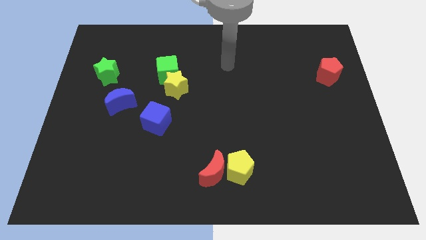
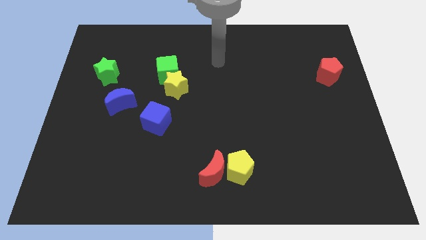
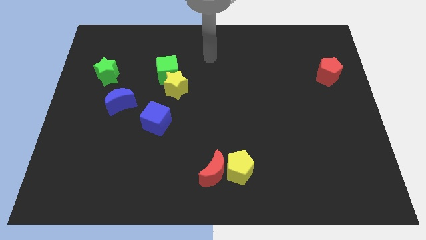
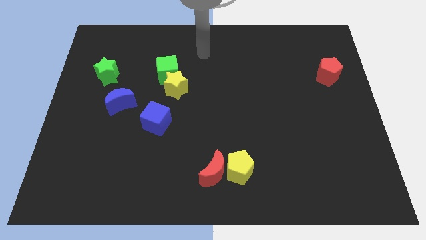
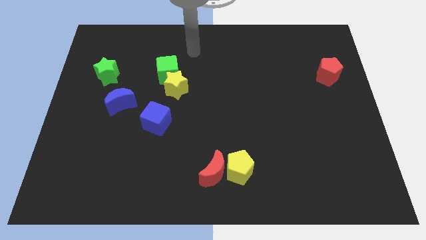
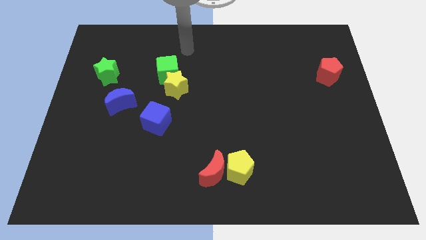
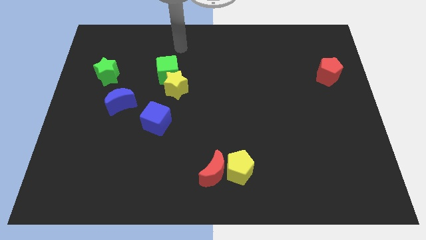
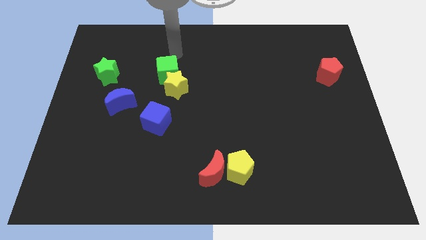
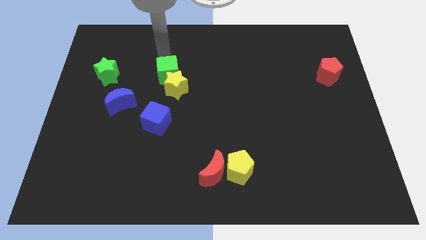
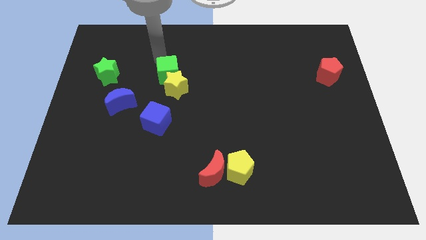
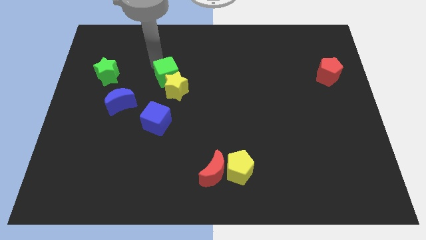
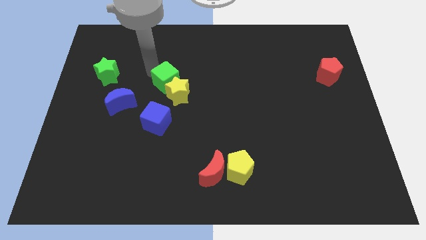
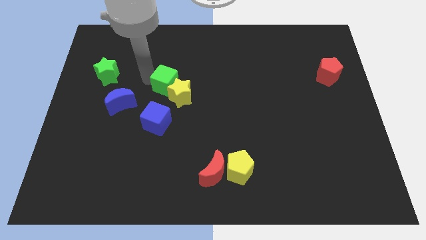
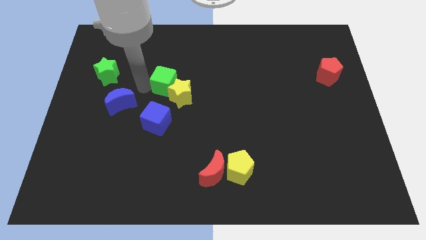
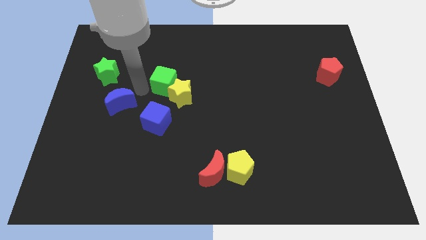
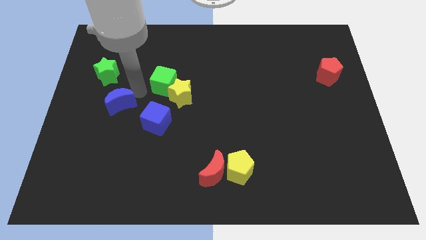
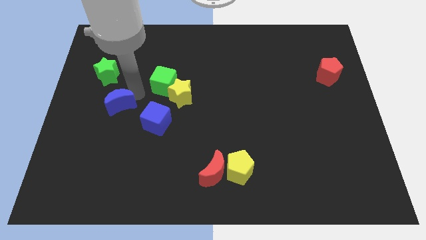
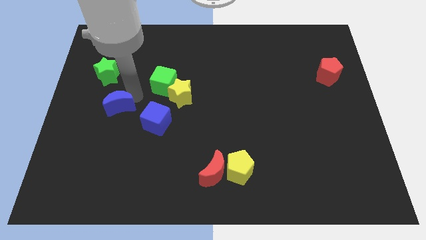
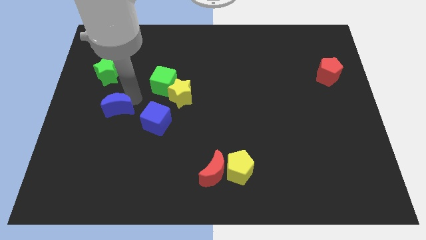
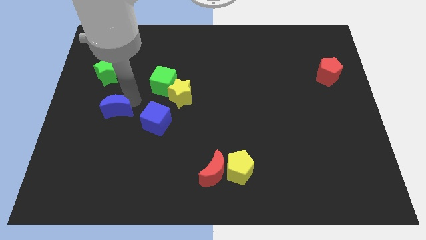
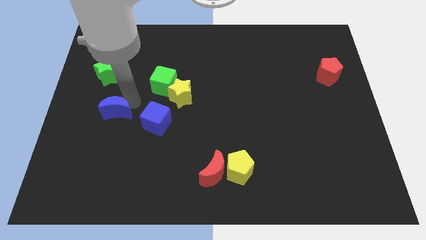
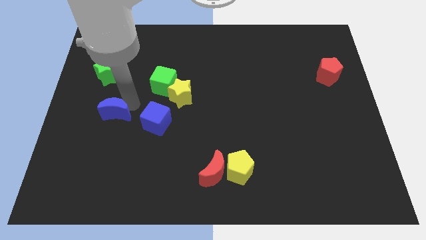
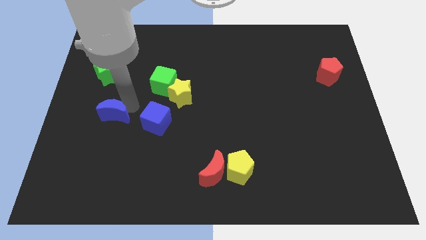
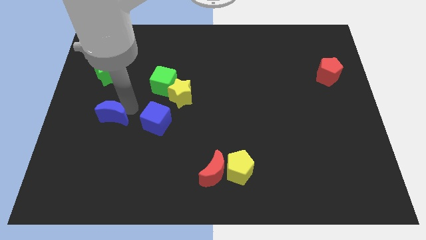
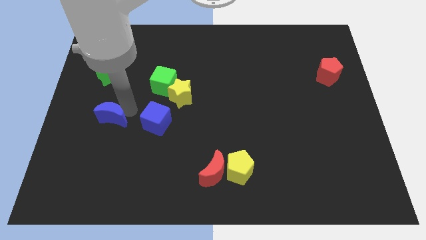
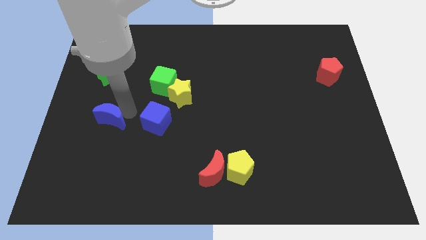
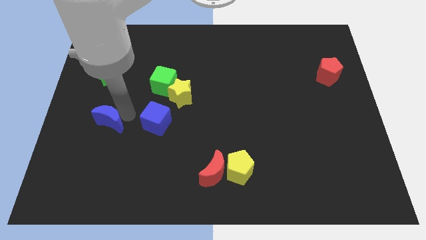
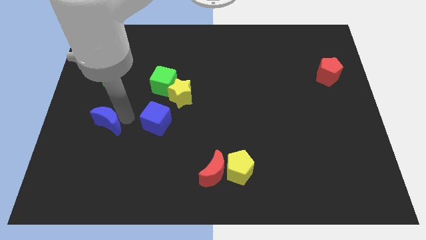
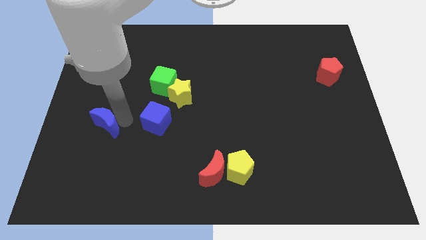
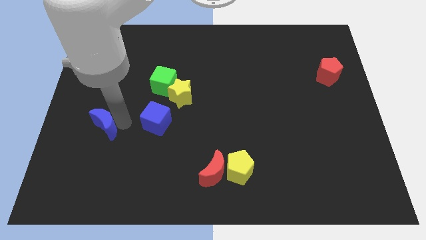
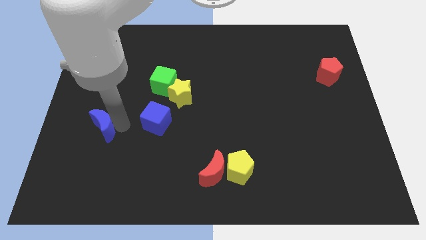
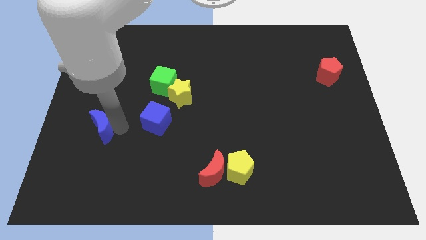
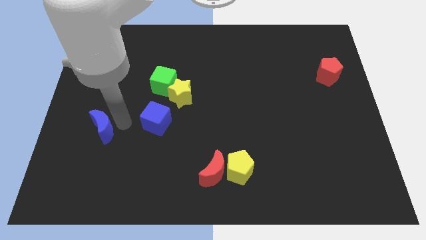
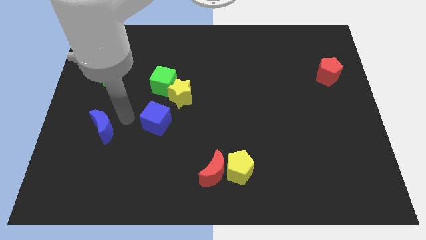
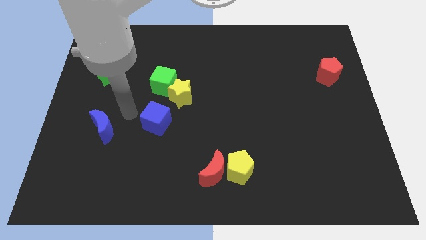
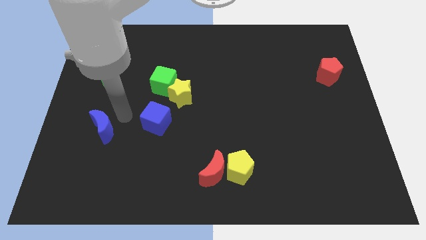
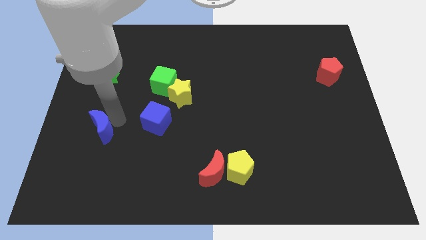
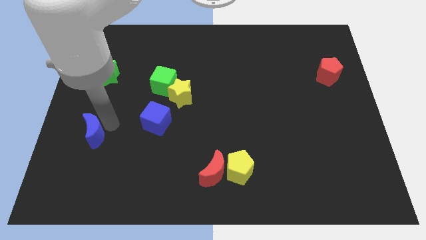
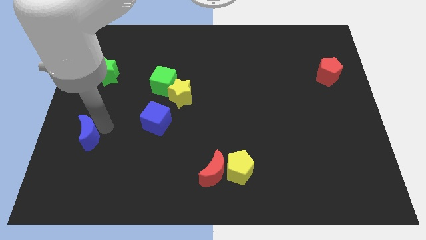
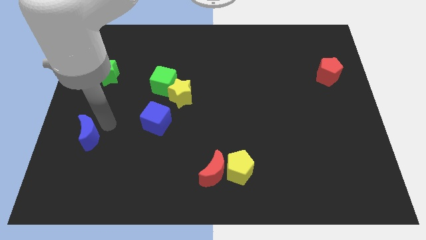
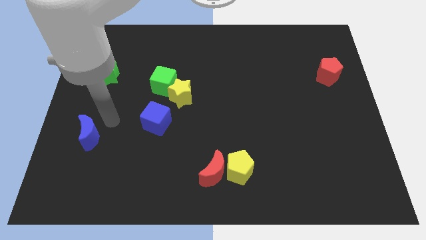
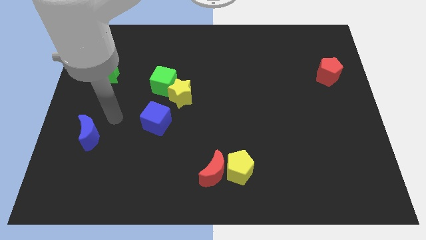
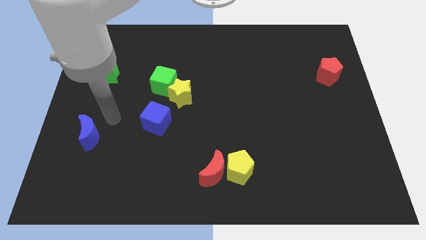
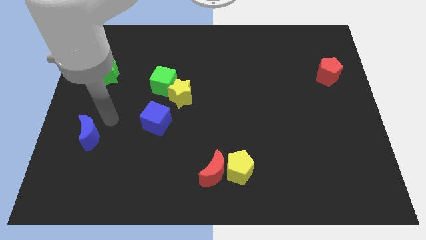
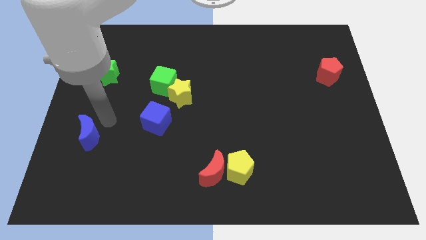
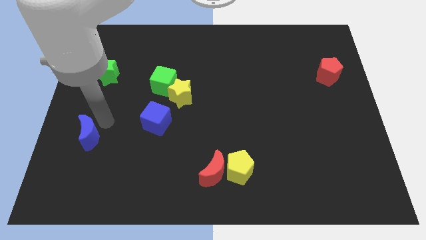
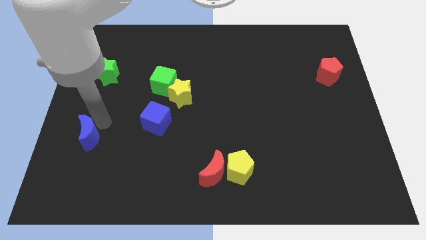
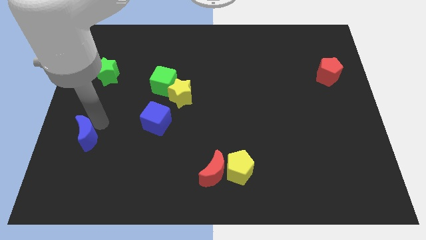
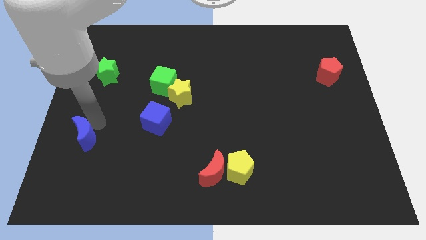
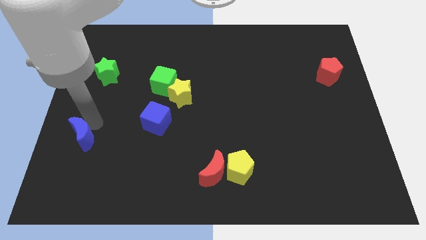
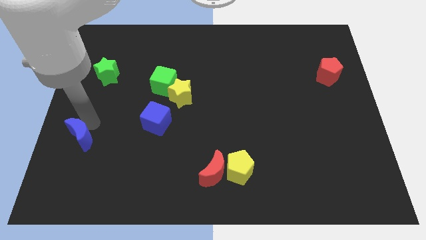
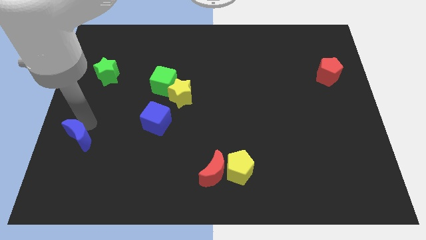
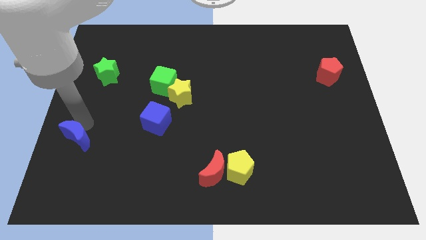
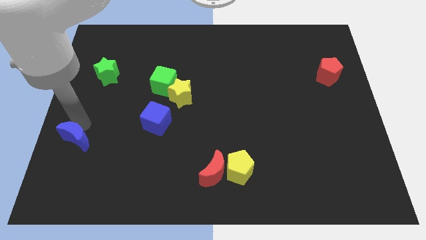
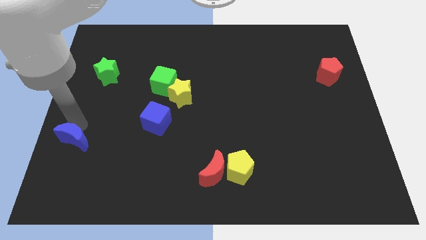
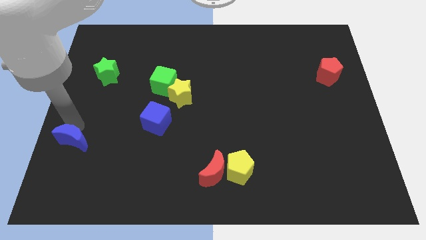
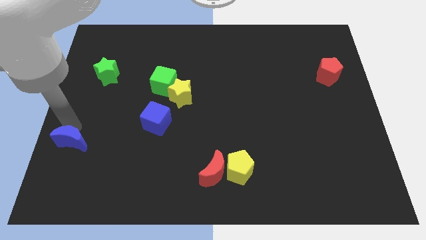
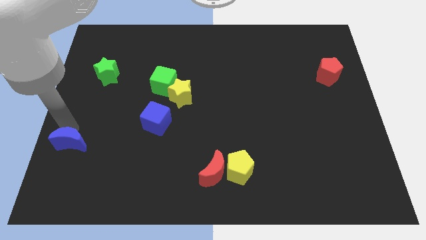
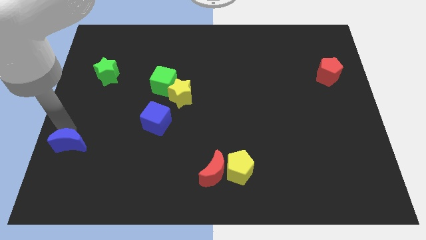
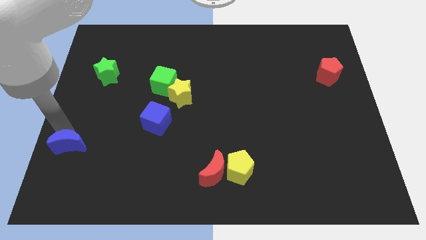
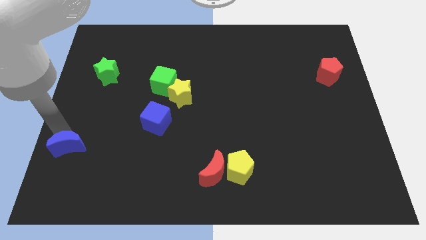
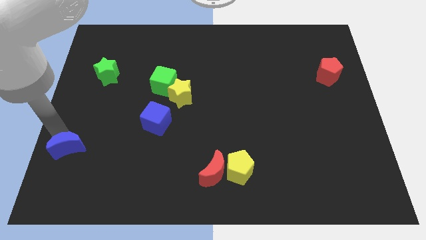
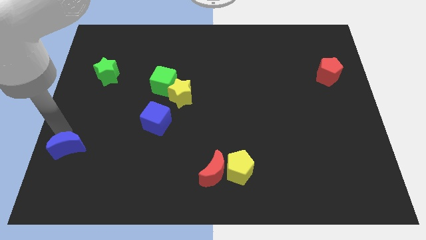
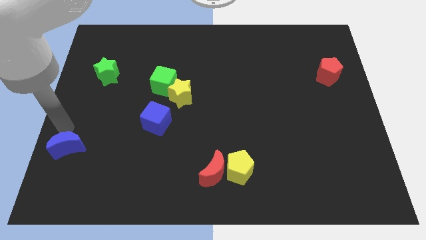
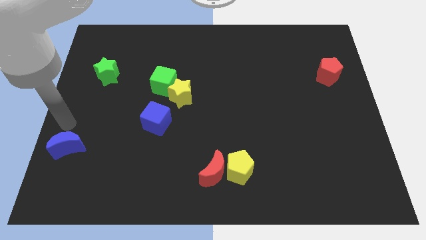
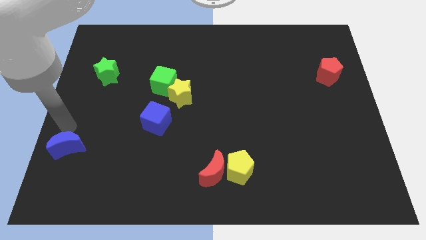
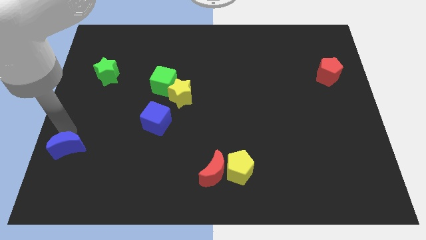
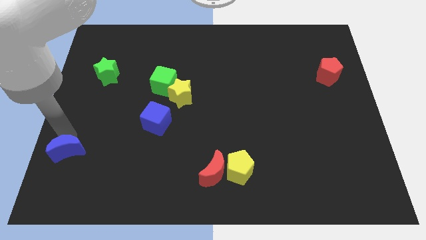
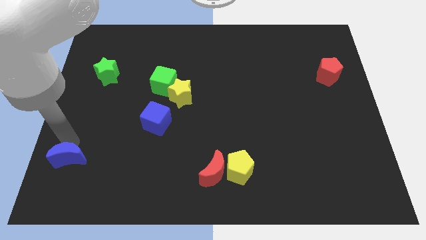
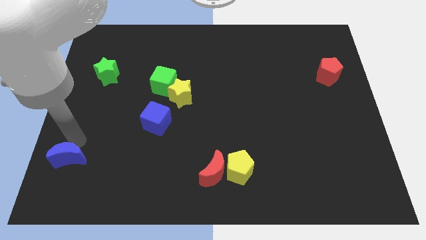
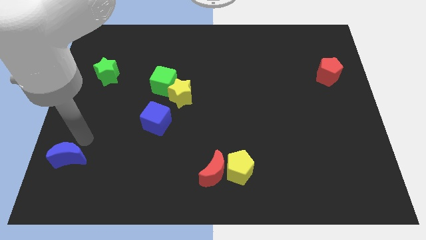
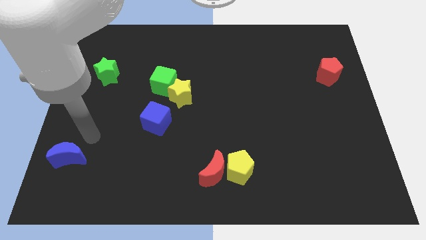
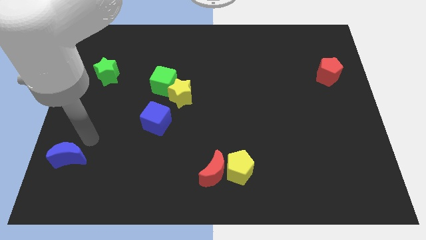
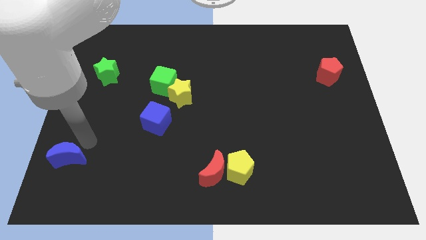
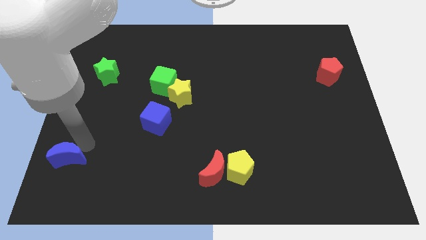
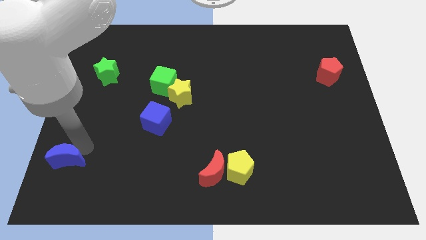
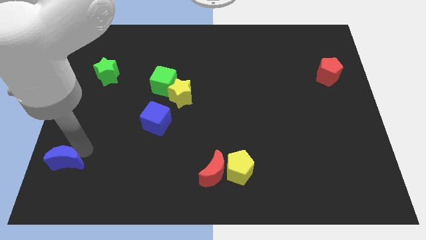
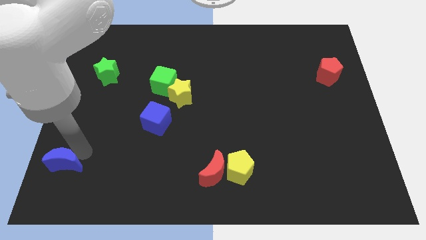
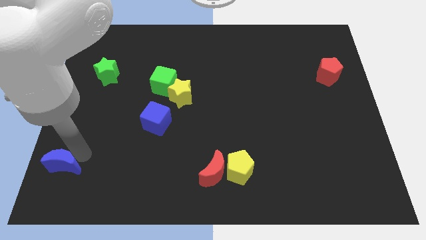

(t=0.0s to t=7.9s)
slide the blue moon to the bottom left
